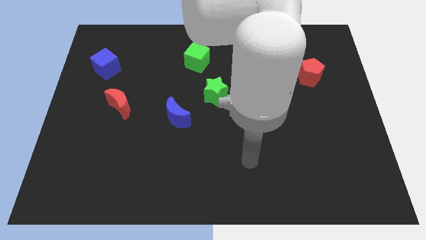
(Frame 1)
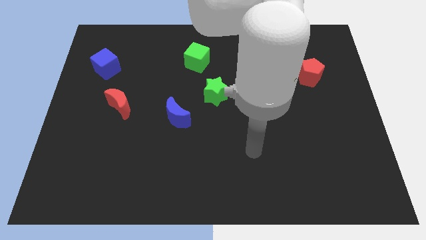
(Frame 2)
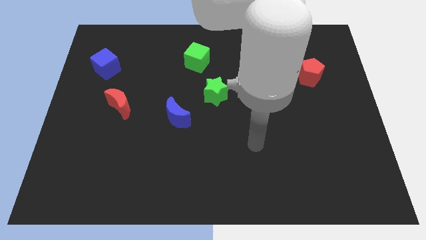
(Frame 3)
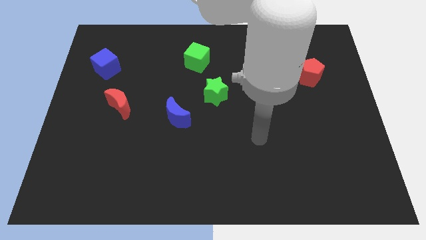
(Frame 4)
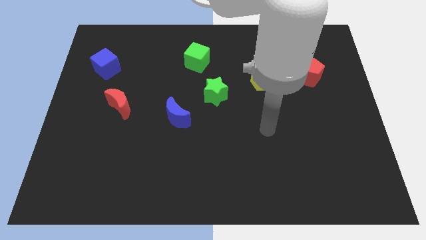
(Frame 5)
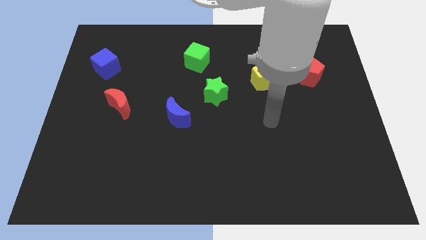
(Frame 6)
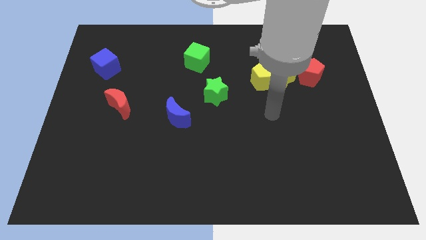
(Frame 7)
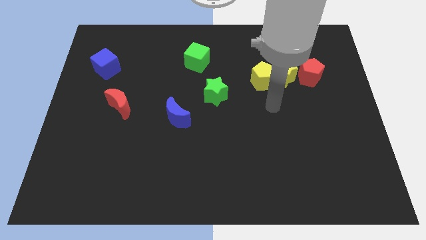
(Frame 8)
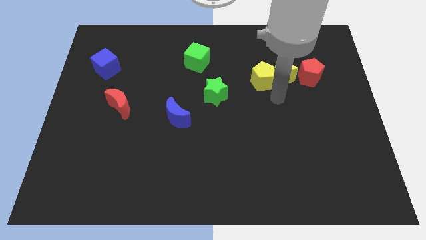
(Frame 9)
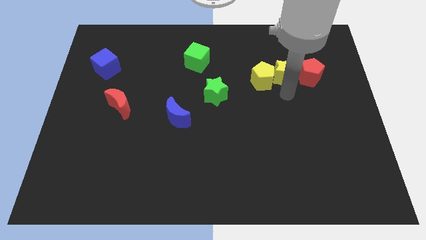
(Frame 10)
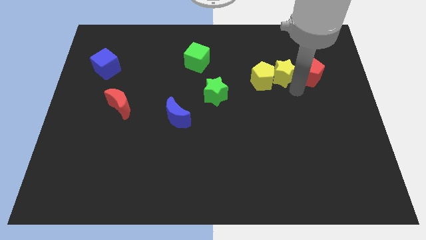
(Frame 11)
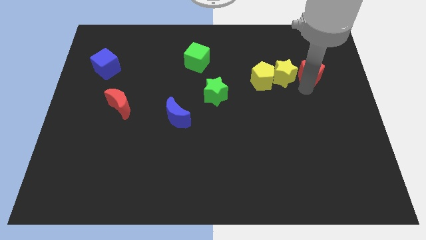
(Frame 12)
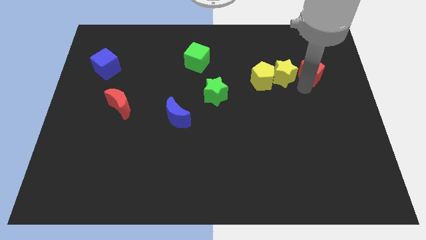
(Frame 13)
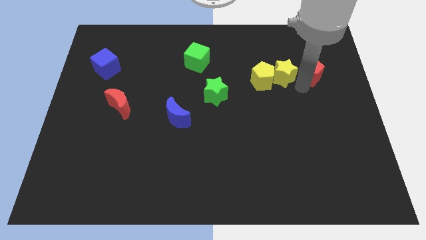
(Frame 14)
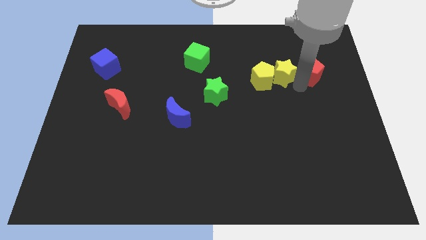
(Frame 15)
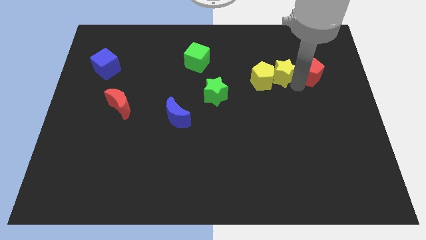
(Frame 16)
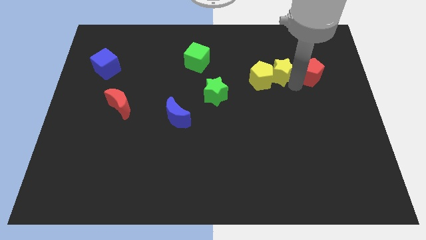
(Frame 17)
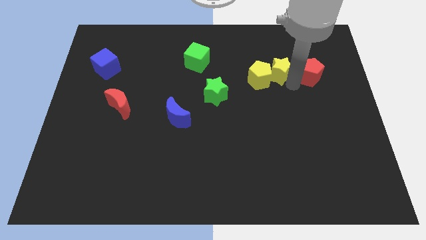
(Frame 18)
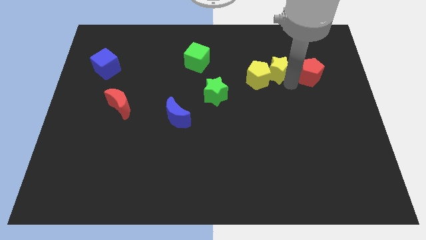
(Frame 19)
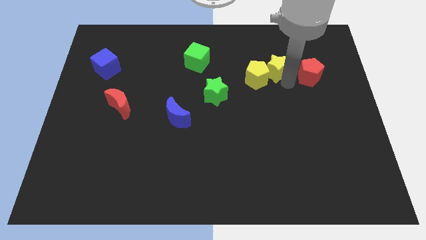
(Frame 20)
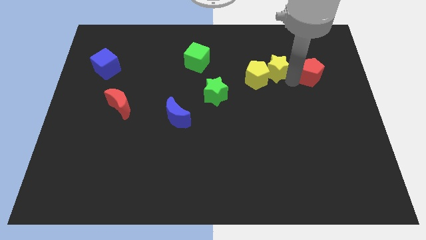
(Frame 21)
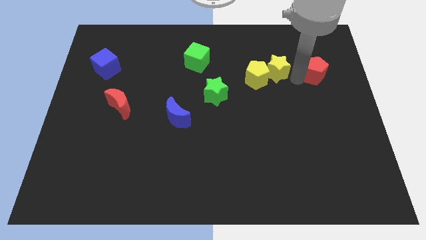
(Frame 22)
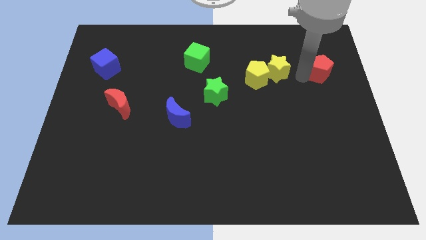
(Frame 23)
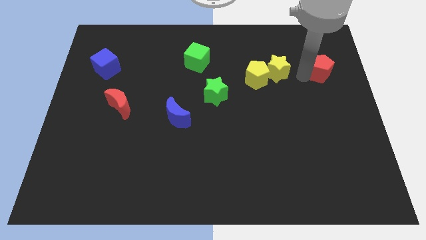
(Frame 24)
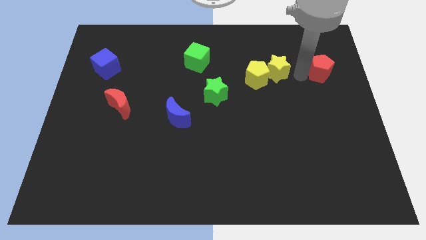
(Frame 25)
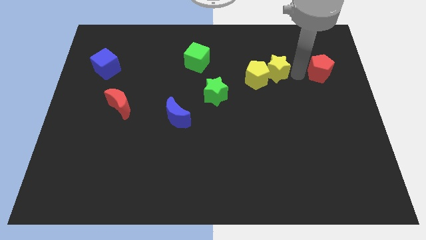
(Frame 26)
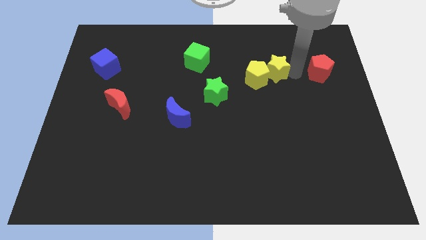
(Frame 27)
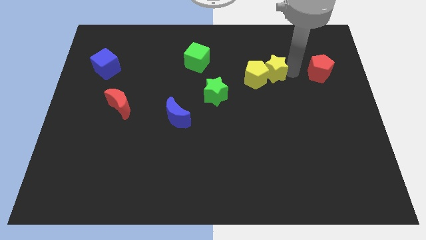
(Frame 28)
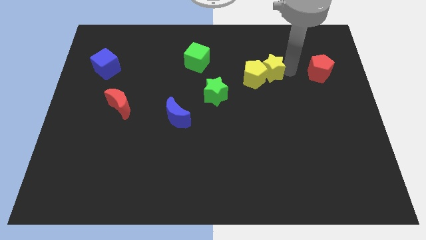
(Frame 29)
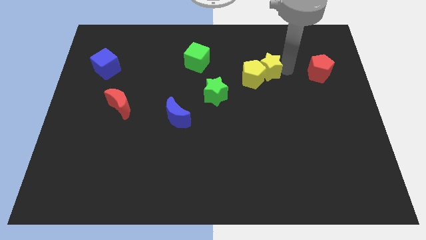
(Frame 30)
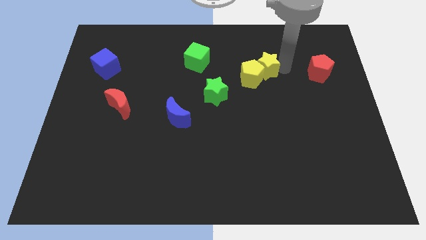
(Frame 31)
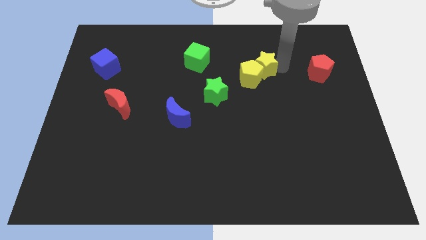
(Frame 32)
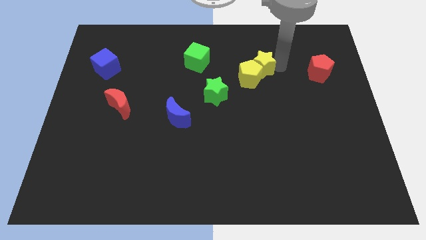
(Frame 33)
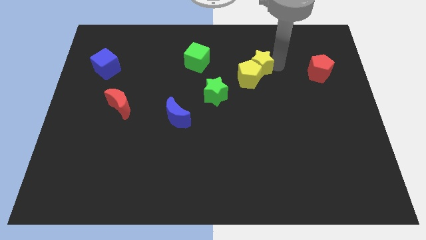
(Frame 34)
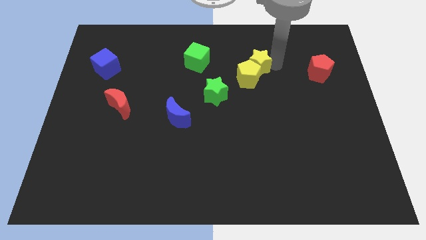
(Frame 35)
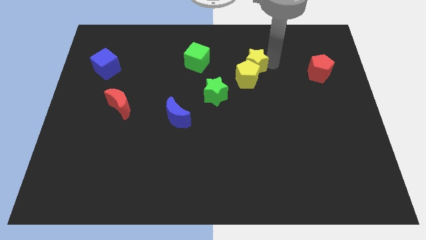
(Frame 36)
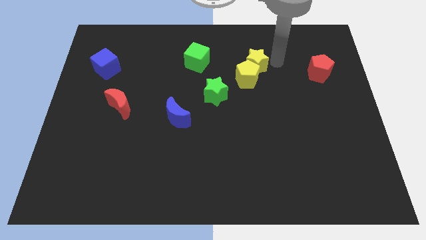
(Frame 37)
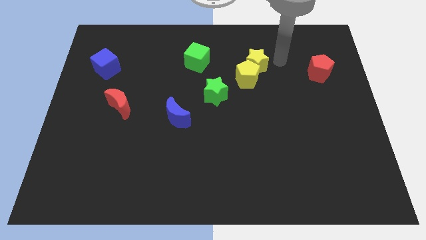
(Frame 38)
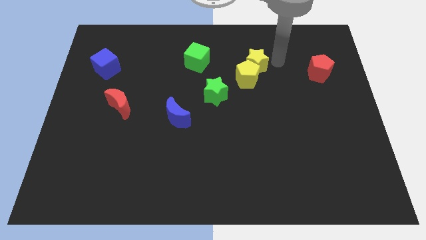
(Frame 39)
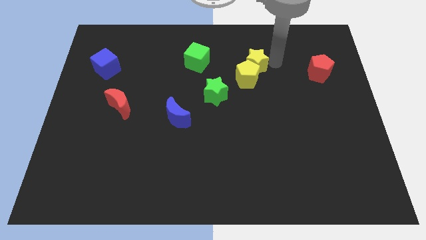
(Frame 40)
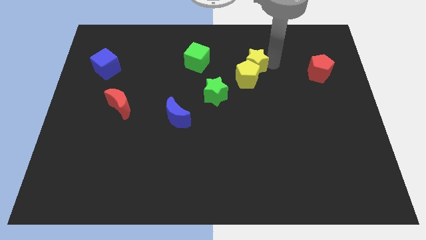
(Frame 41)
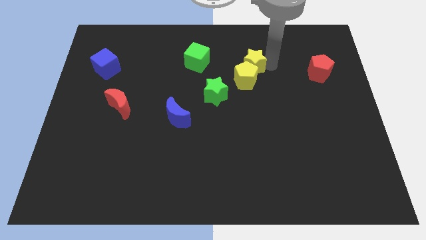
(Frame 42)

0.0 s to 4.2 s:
push the yellow star left slightly

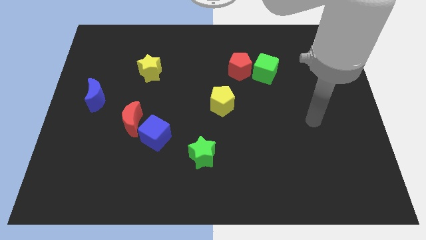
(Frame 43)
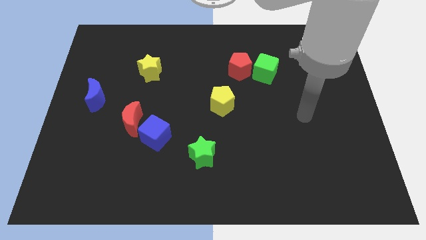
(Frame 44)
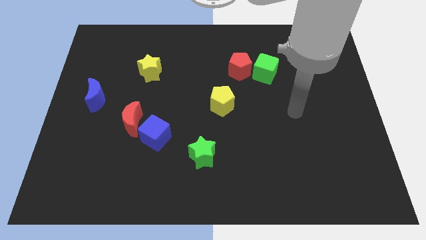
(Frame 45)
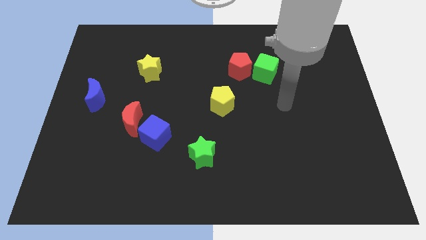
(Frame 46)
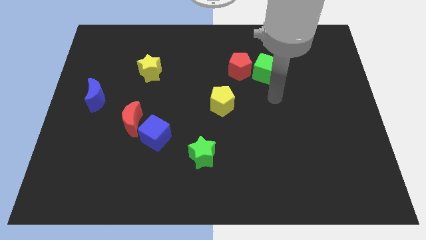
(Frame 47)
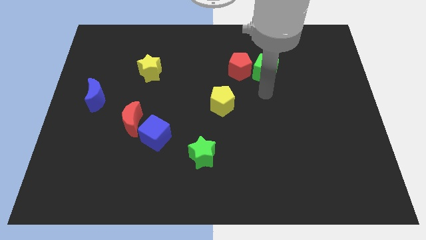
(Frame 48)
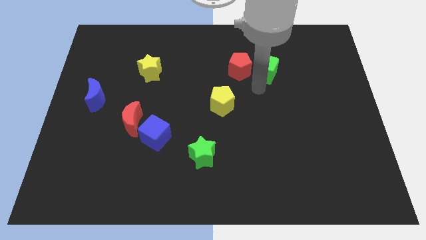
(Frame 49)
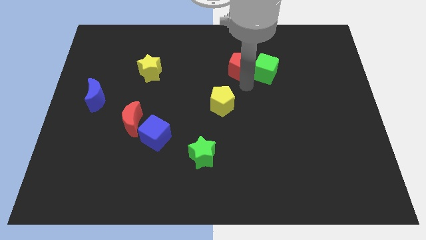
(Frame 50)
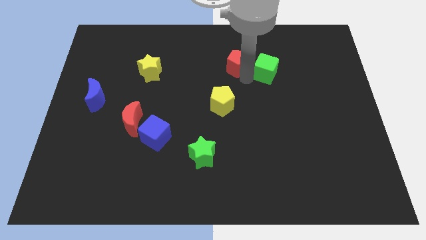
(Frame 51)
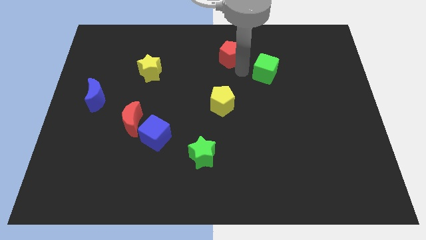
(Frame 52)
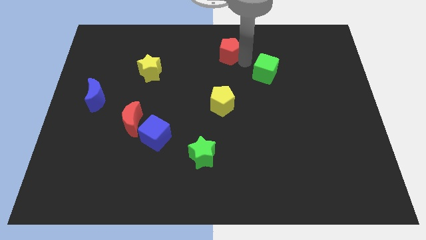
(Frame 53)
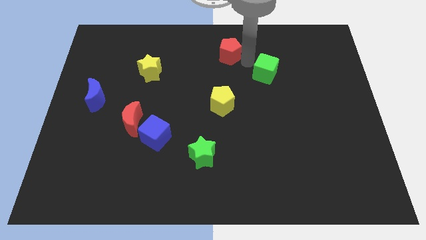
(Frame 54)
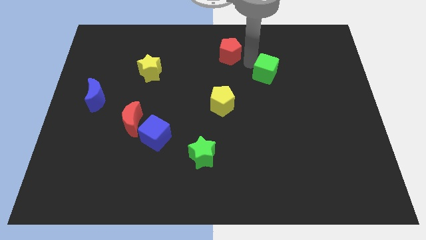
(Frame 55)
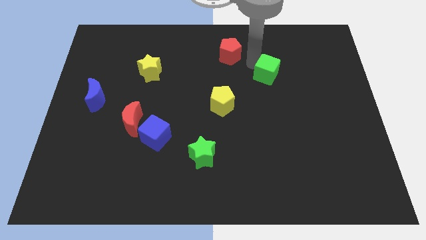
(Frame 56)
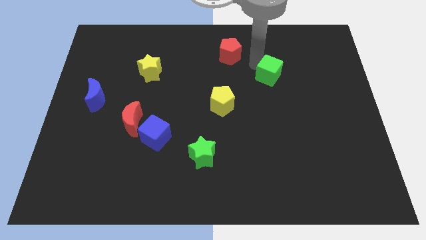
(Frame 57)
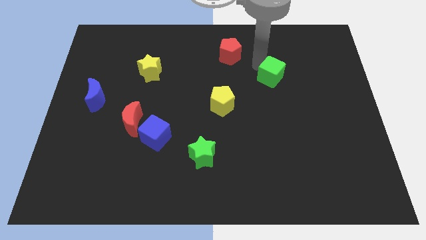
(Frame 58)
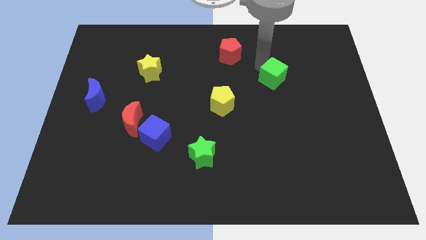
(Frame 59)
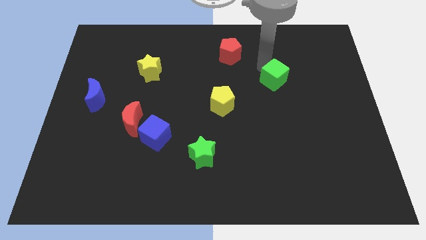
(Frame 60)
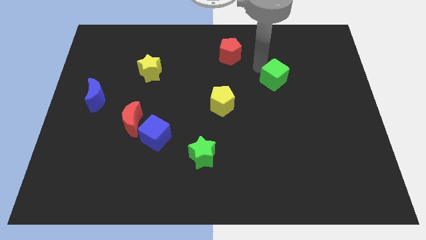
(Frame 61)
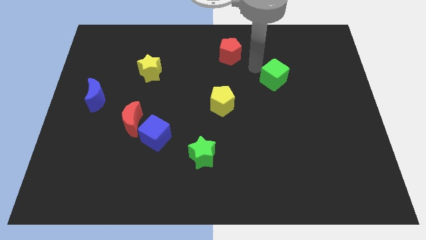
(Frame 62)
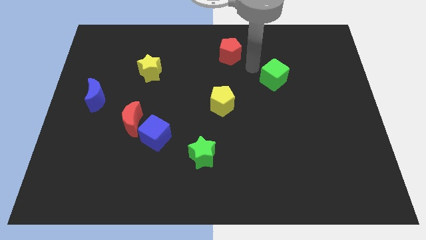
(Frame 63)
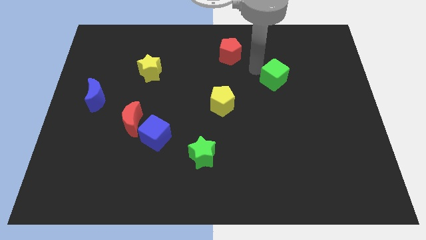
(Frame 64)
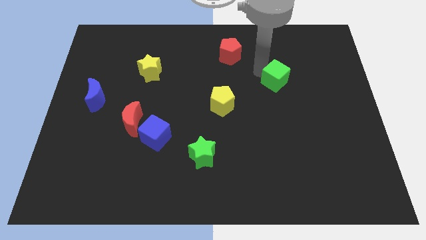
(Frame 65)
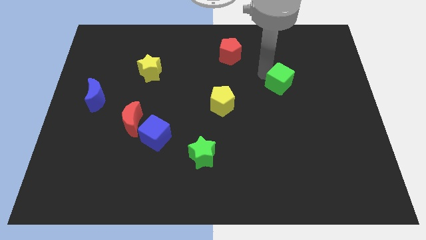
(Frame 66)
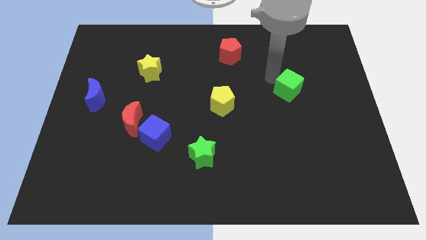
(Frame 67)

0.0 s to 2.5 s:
slightly move the green cube down and right

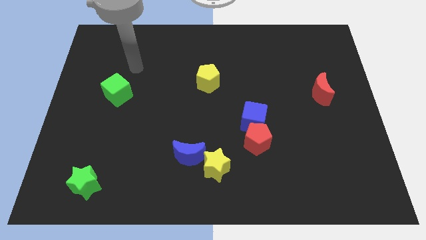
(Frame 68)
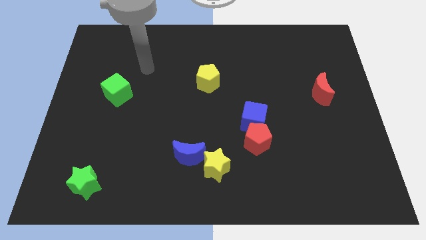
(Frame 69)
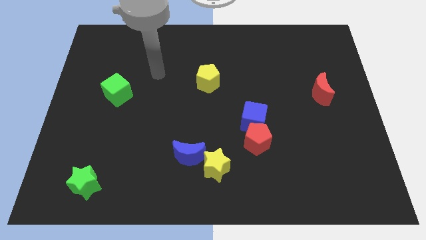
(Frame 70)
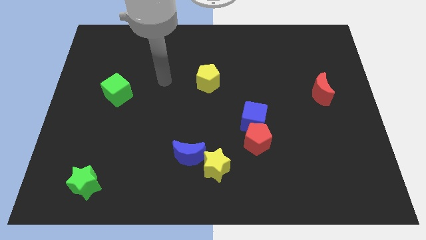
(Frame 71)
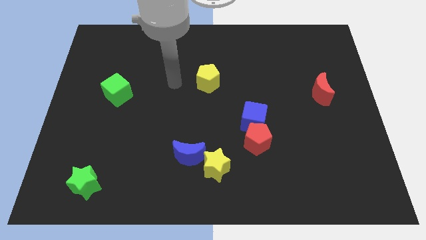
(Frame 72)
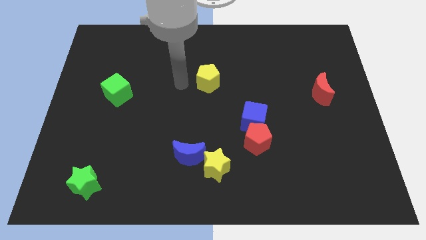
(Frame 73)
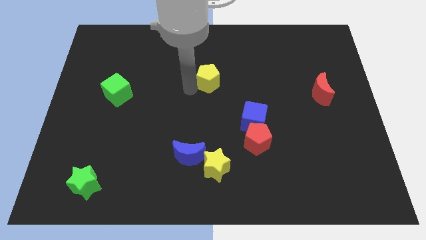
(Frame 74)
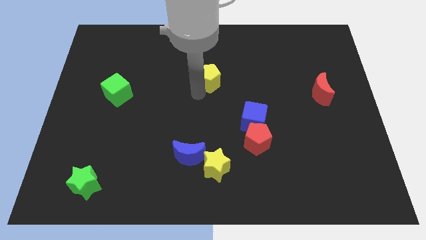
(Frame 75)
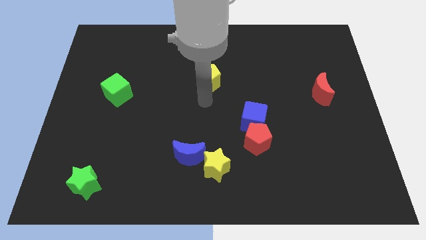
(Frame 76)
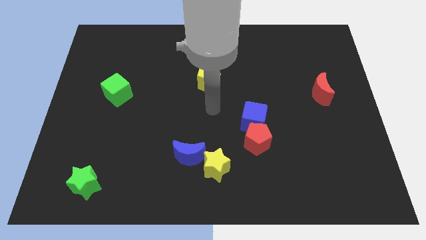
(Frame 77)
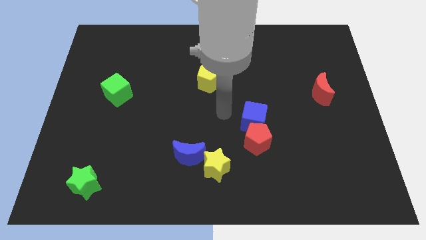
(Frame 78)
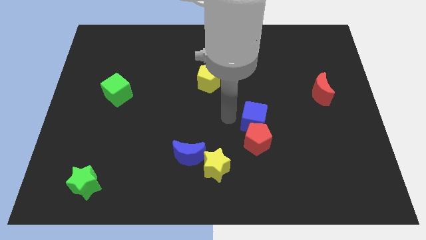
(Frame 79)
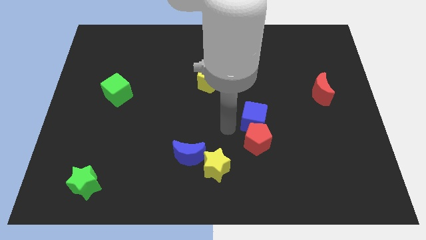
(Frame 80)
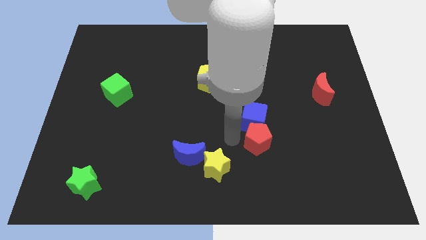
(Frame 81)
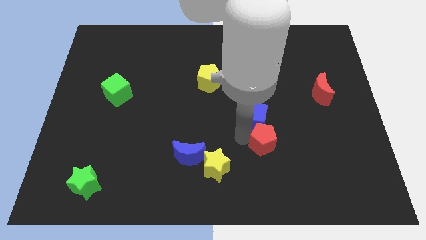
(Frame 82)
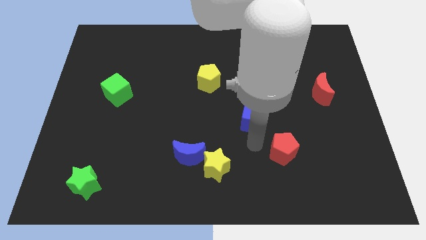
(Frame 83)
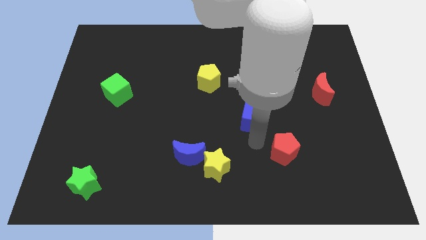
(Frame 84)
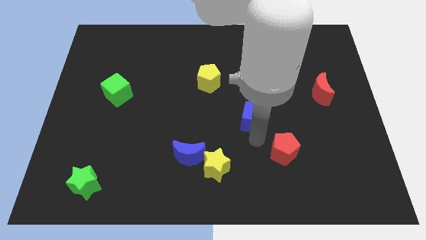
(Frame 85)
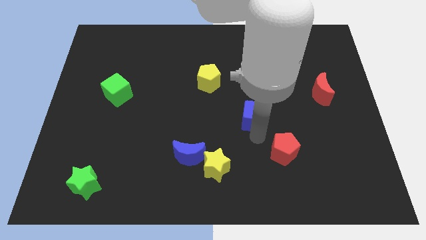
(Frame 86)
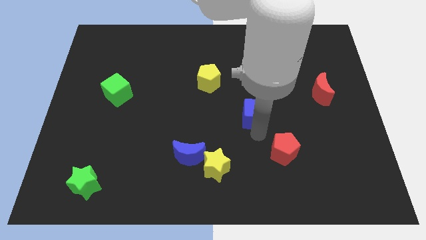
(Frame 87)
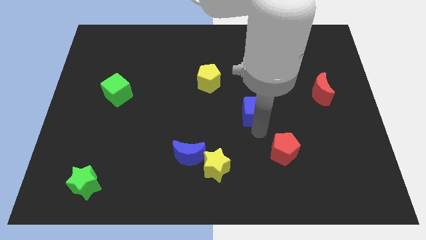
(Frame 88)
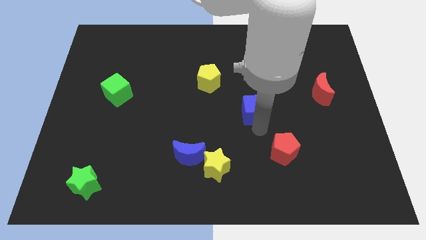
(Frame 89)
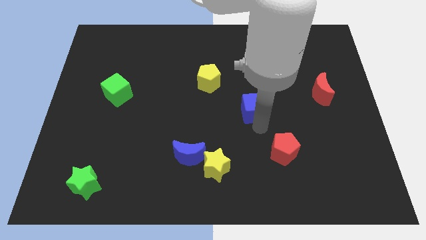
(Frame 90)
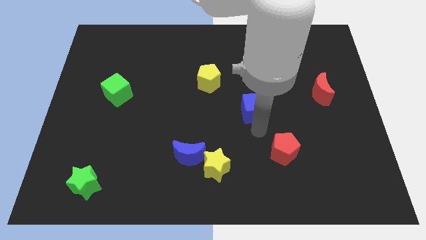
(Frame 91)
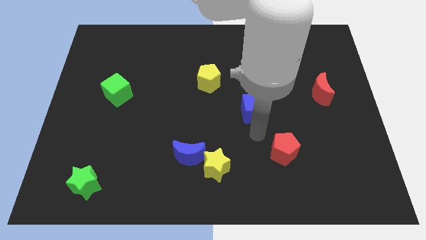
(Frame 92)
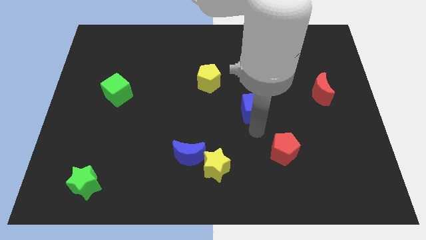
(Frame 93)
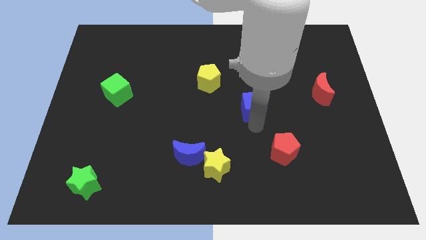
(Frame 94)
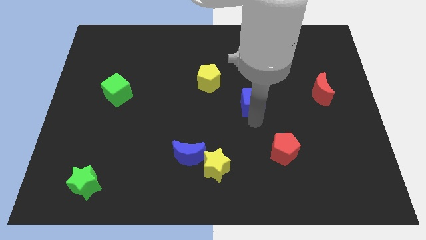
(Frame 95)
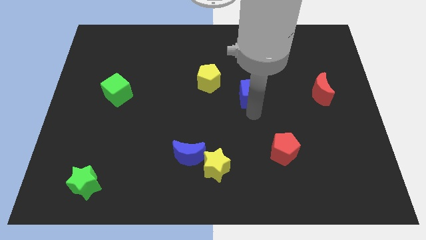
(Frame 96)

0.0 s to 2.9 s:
slightly move the blue cube up
